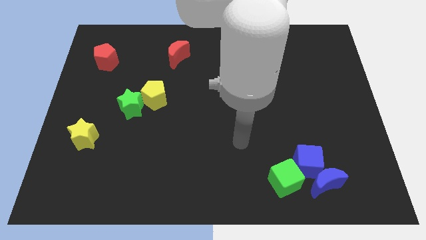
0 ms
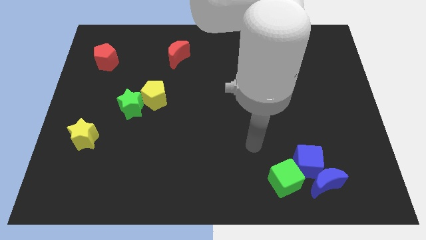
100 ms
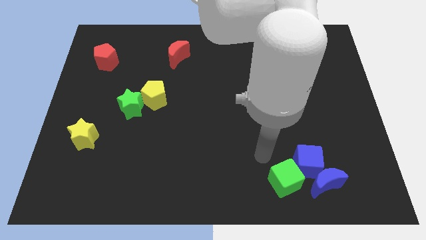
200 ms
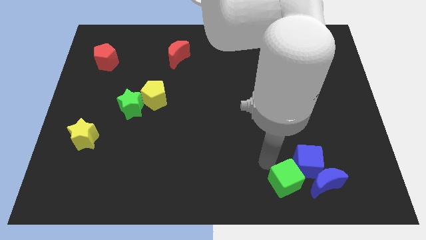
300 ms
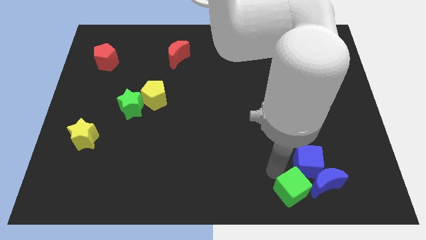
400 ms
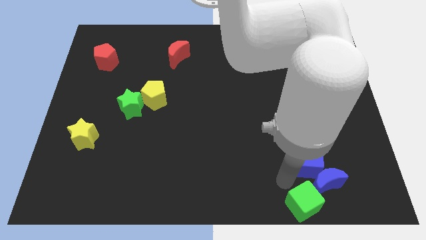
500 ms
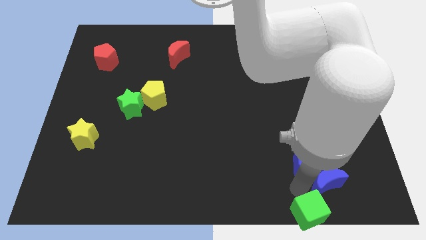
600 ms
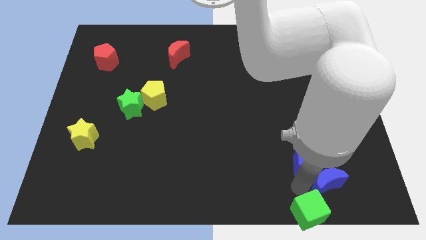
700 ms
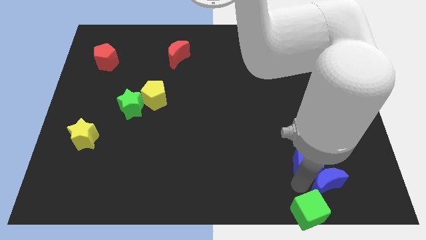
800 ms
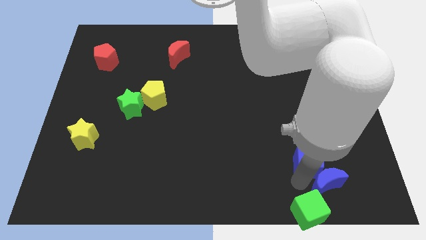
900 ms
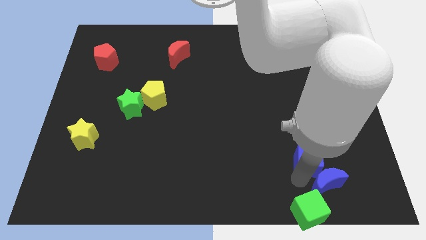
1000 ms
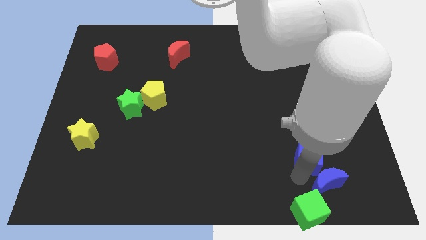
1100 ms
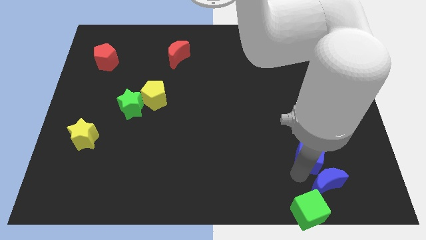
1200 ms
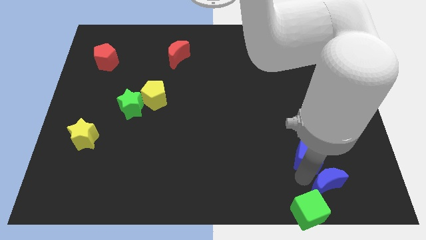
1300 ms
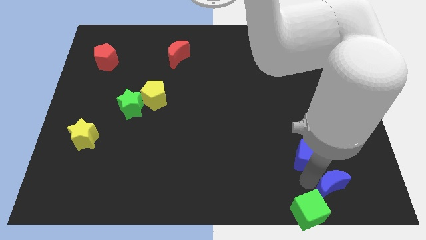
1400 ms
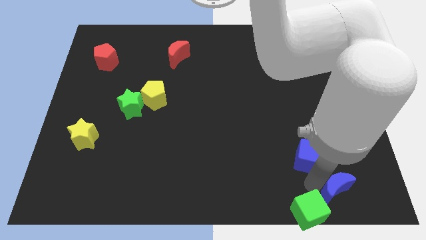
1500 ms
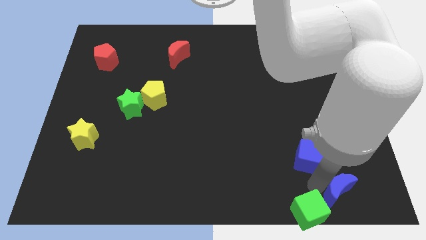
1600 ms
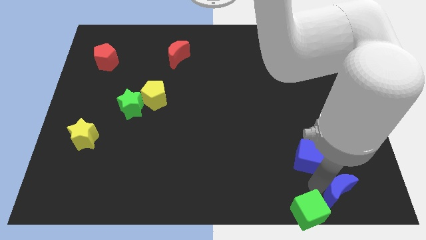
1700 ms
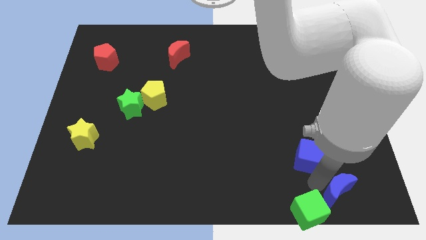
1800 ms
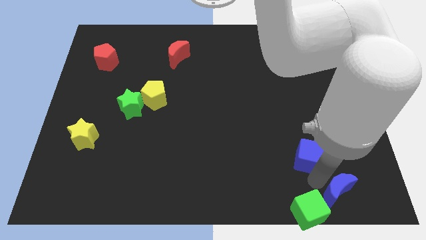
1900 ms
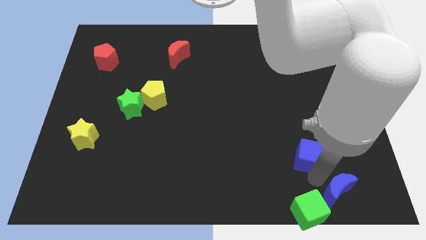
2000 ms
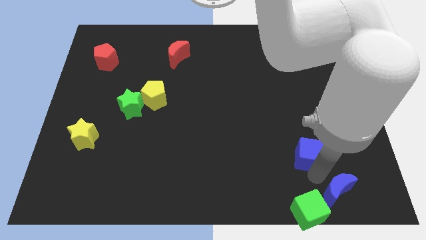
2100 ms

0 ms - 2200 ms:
pull the blue cube apart from the blue moon and green cube

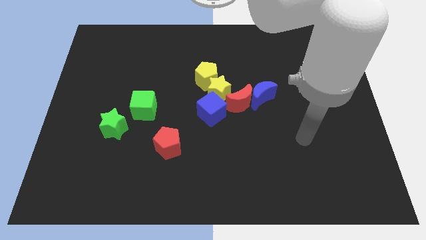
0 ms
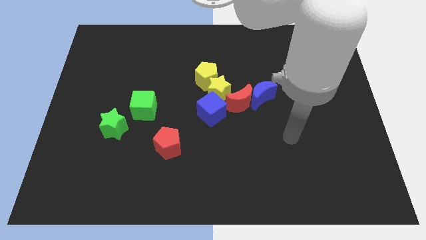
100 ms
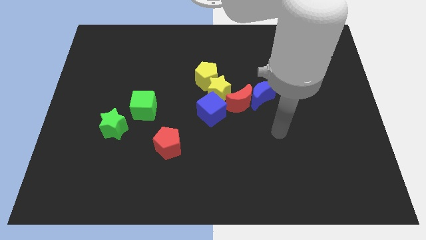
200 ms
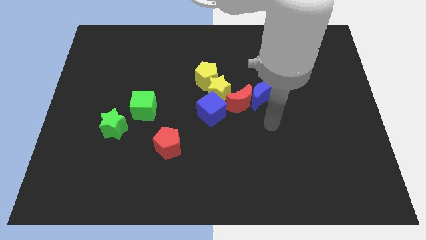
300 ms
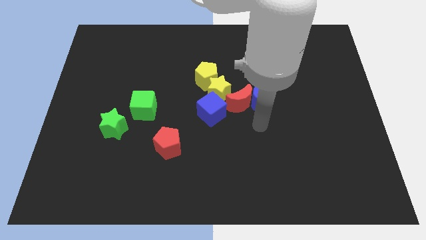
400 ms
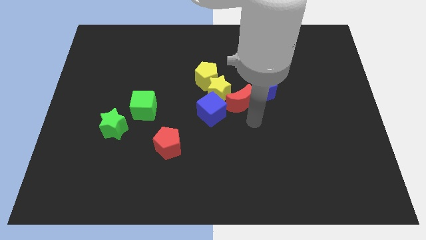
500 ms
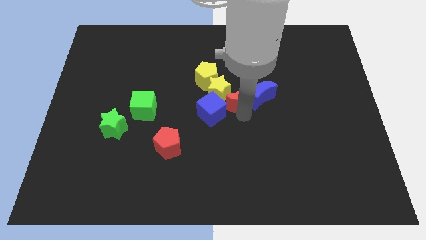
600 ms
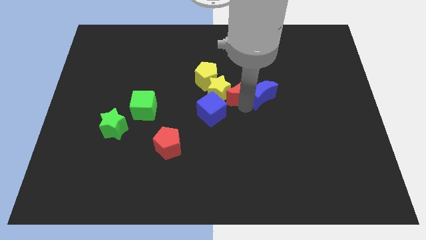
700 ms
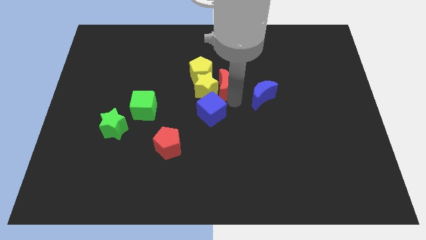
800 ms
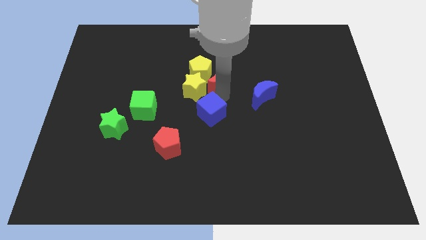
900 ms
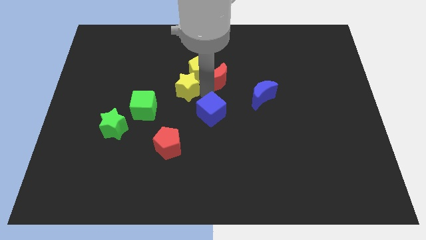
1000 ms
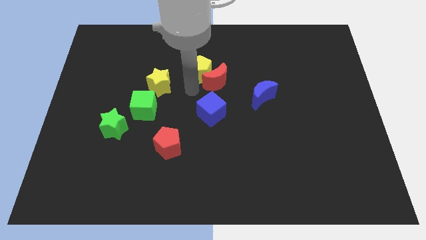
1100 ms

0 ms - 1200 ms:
move the yellow pentagon away from the yellow star

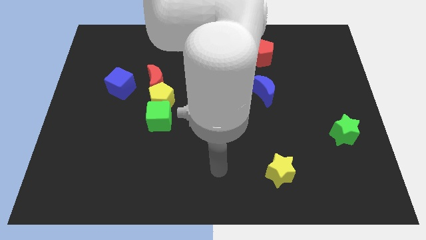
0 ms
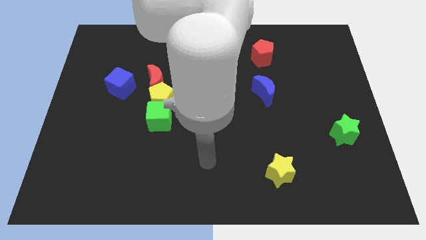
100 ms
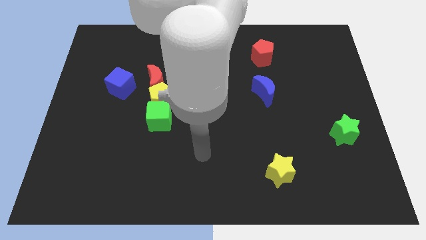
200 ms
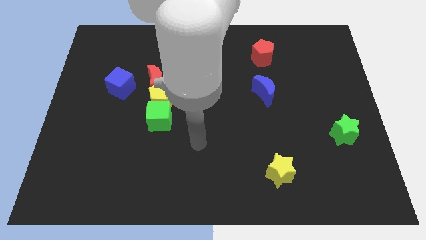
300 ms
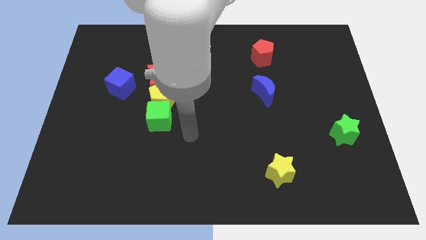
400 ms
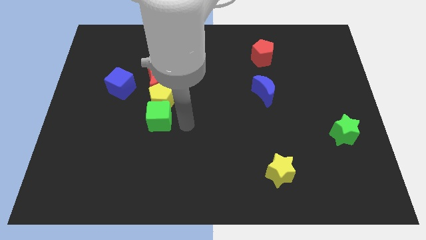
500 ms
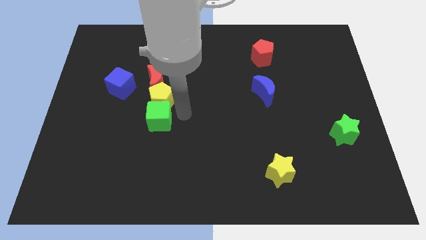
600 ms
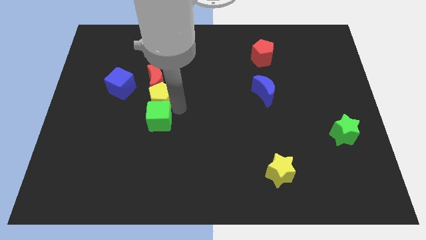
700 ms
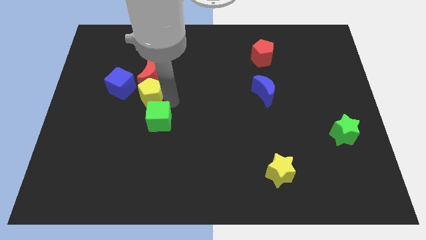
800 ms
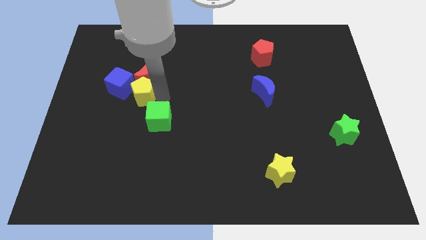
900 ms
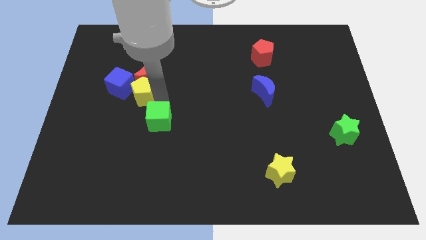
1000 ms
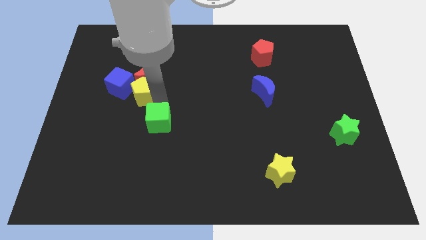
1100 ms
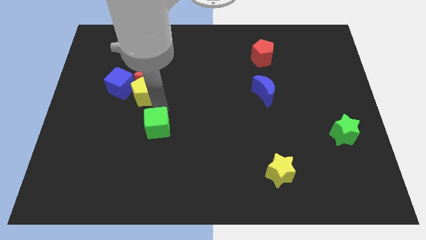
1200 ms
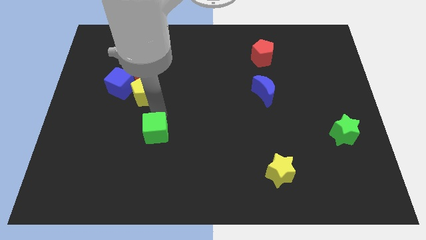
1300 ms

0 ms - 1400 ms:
pull the green cube apart from the yellow pentagon

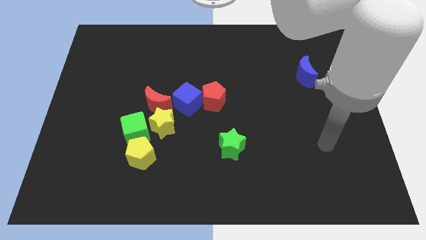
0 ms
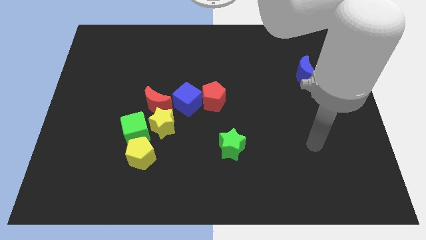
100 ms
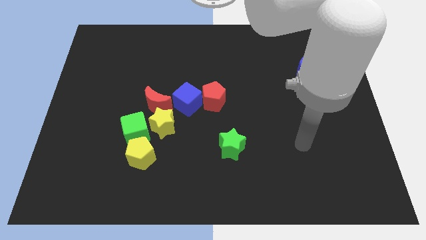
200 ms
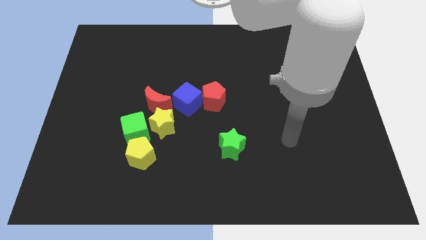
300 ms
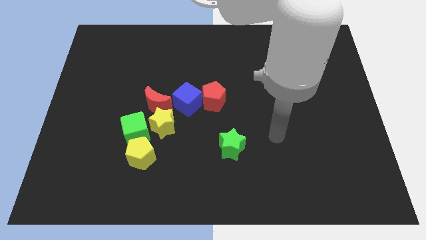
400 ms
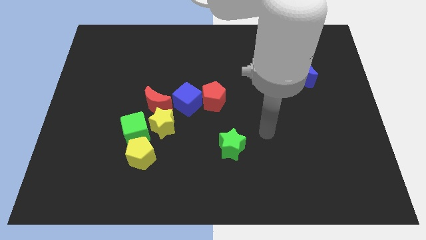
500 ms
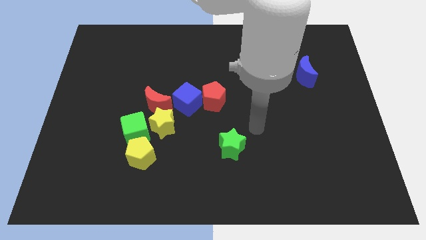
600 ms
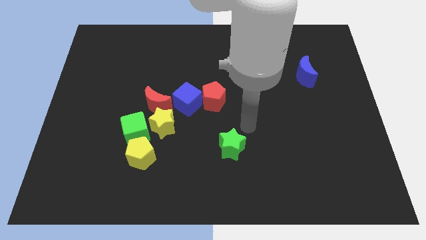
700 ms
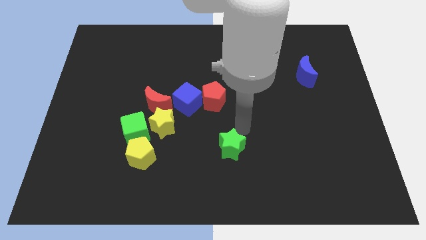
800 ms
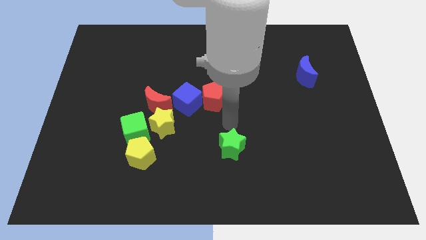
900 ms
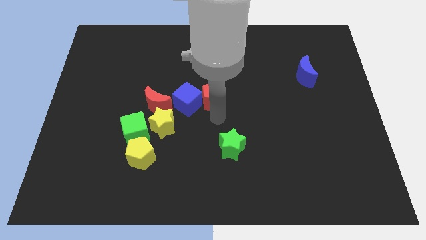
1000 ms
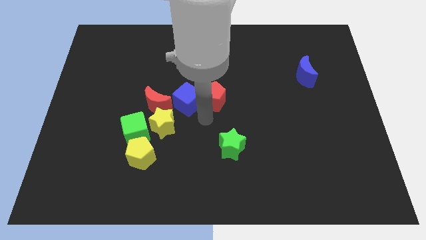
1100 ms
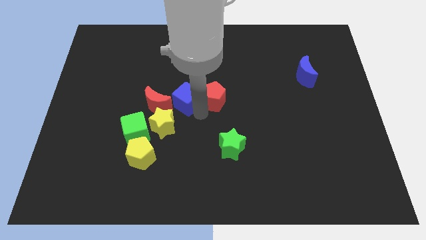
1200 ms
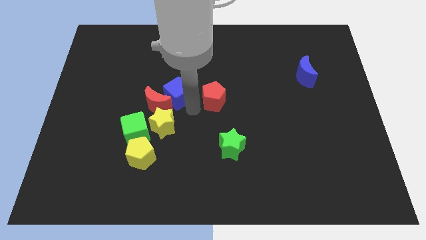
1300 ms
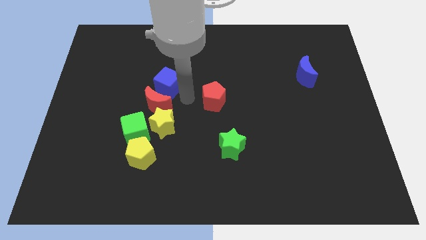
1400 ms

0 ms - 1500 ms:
move the red pentagon away from the blue cube

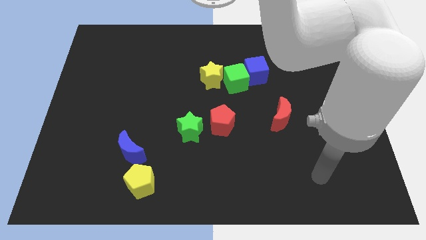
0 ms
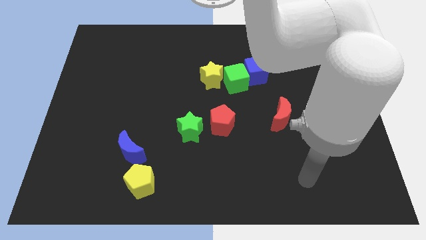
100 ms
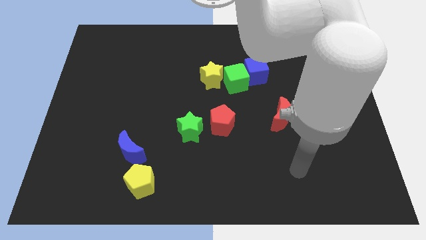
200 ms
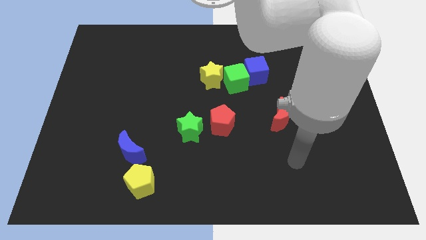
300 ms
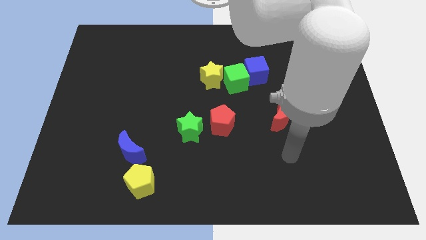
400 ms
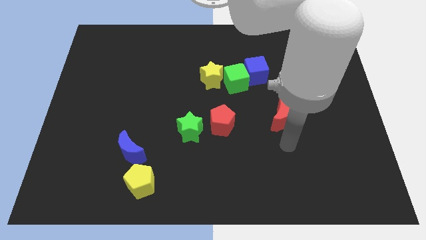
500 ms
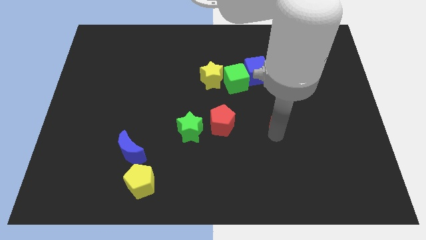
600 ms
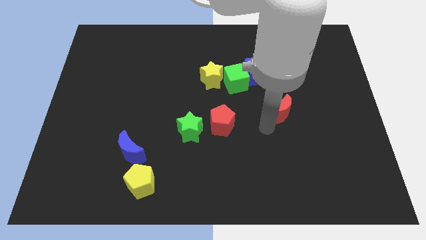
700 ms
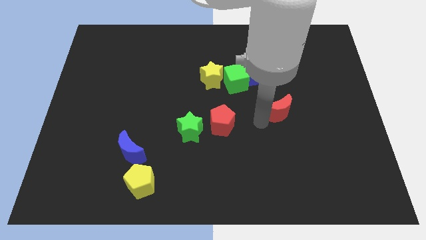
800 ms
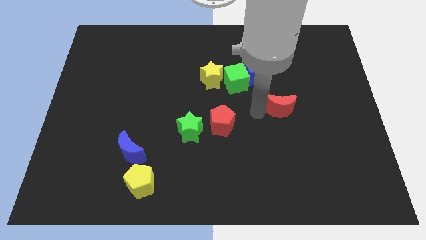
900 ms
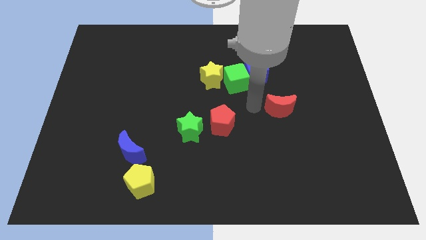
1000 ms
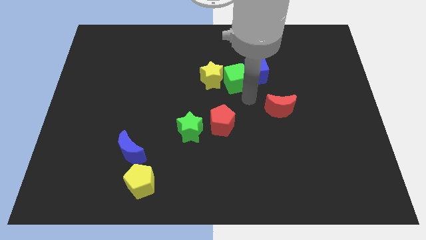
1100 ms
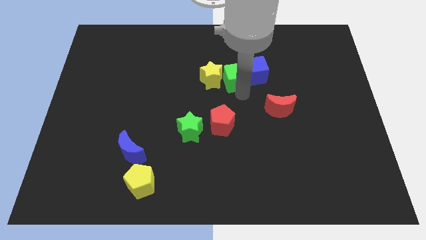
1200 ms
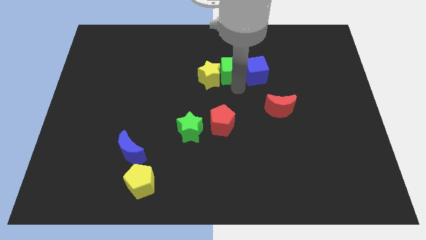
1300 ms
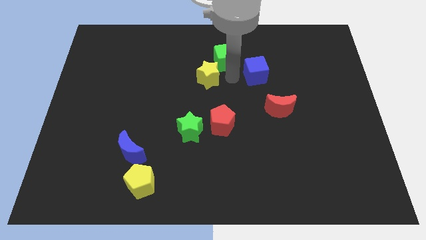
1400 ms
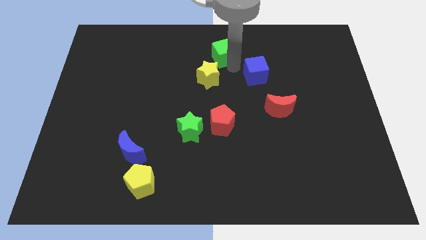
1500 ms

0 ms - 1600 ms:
move the blue cube away from the green cube

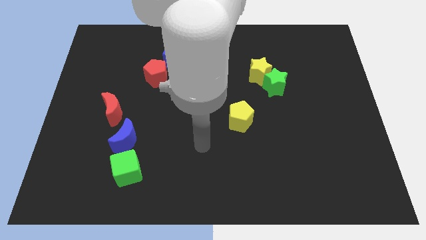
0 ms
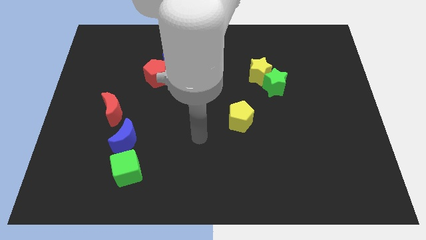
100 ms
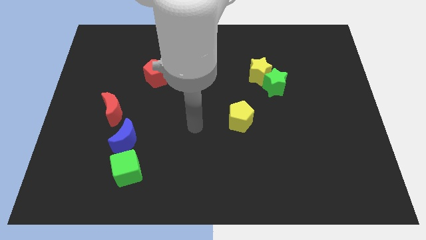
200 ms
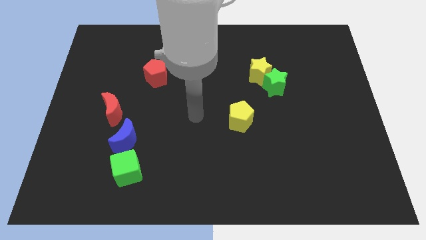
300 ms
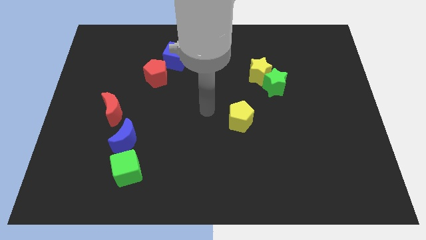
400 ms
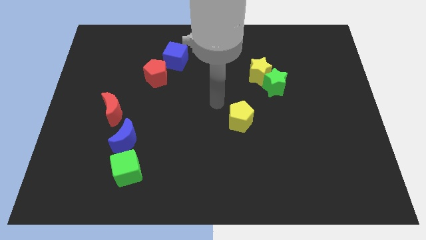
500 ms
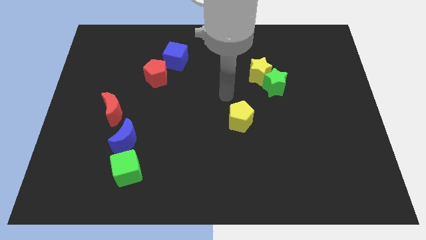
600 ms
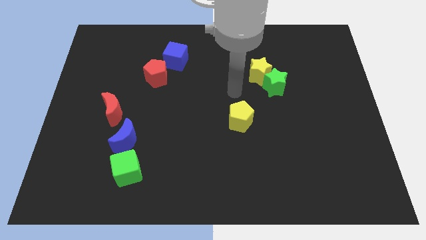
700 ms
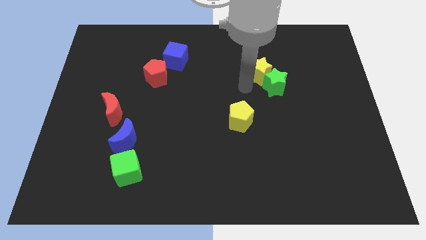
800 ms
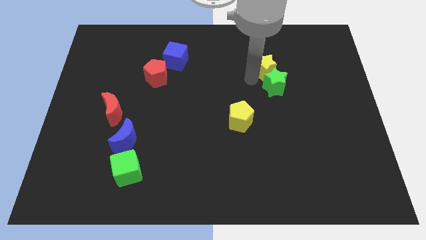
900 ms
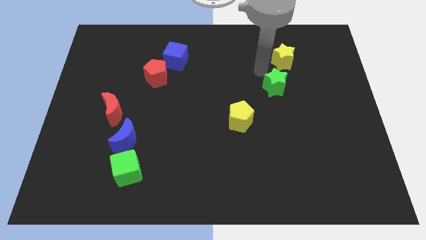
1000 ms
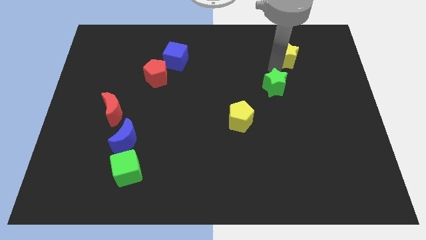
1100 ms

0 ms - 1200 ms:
move the green star away from the yellow star

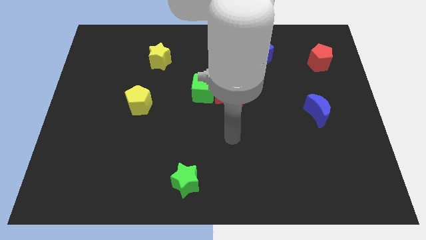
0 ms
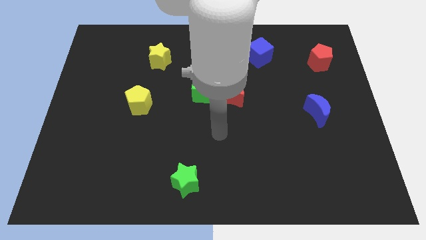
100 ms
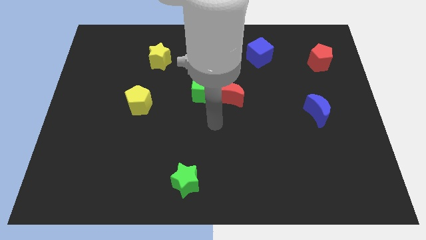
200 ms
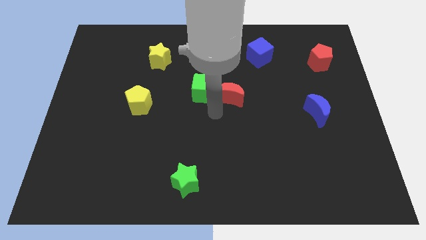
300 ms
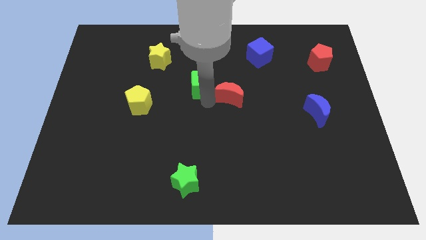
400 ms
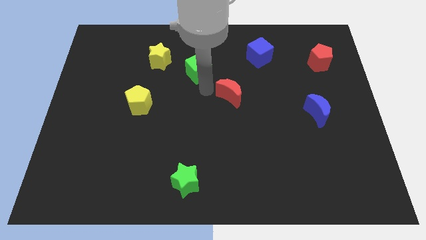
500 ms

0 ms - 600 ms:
move the red moon away from the green cube
